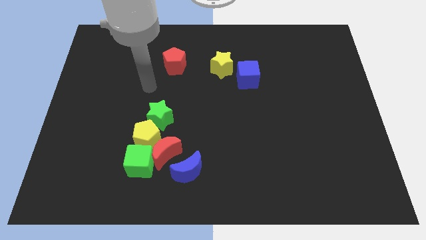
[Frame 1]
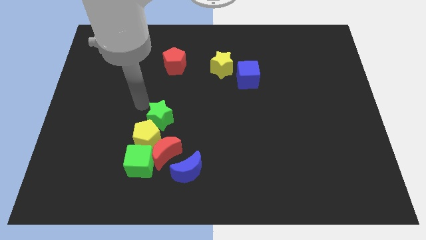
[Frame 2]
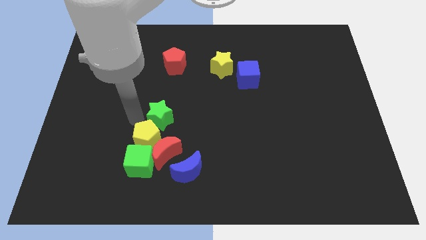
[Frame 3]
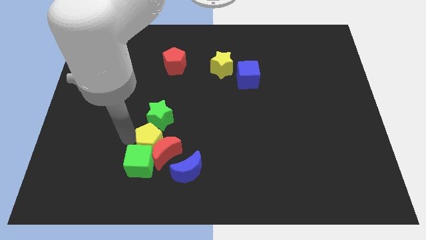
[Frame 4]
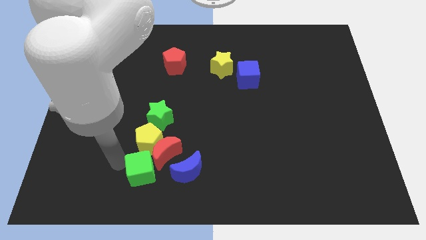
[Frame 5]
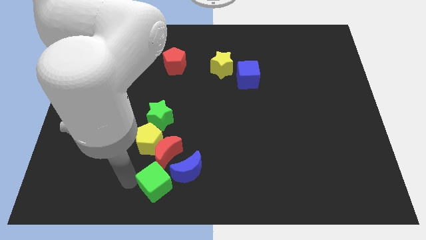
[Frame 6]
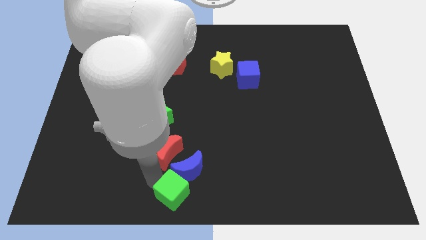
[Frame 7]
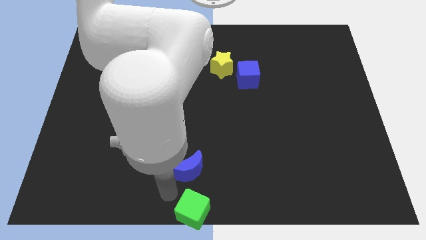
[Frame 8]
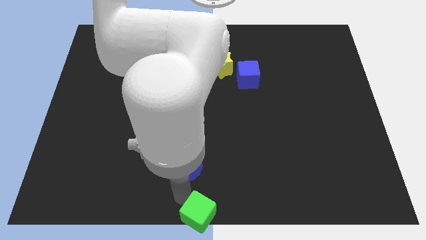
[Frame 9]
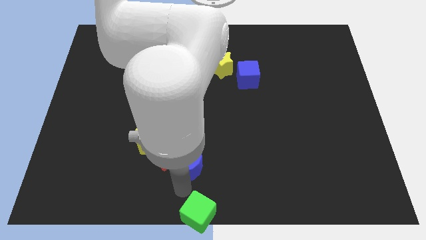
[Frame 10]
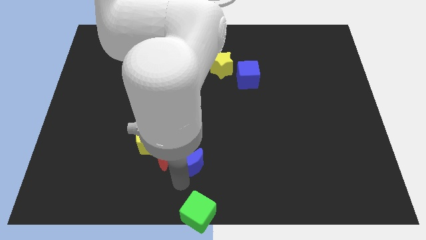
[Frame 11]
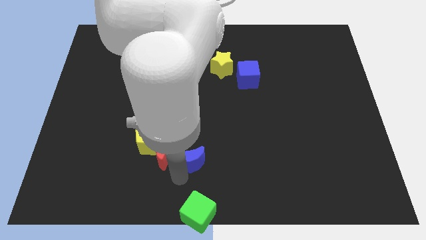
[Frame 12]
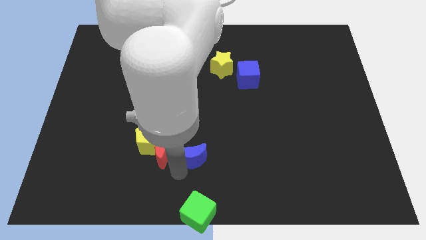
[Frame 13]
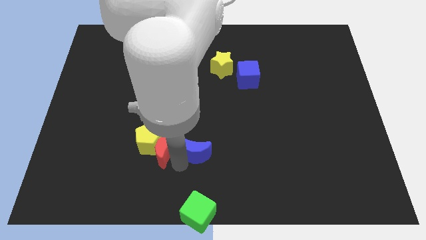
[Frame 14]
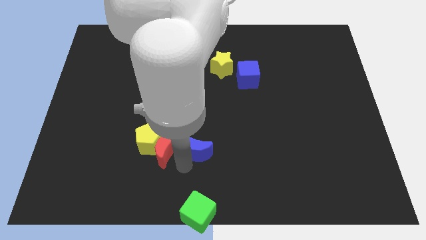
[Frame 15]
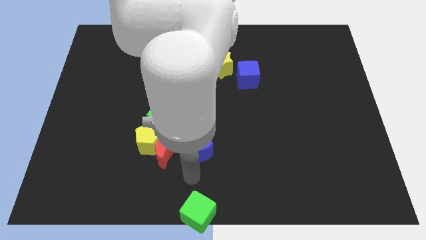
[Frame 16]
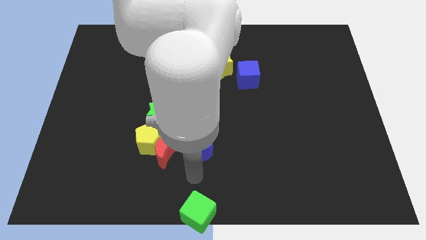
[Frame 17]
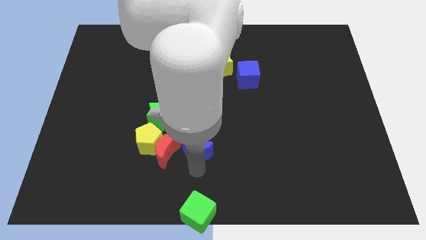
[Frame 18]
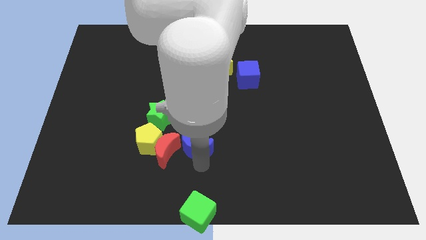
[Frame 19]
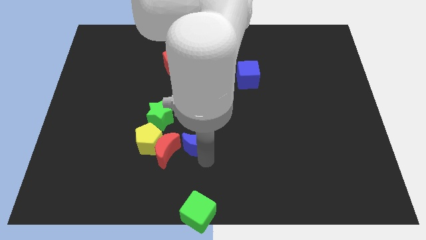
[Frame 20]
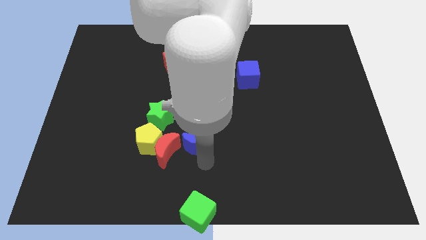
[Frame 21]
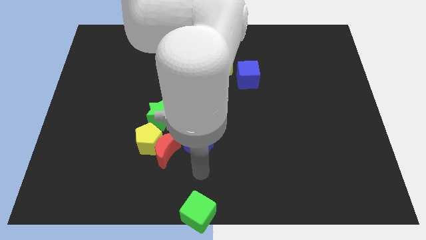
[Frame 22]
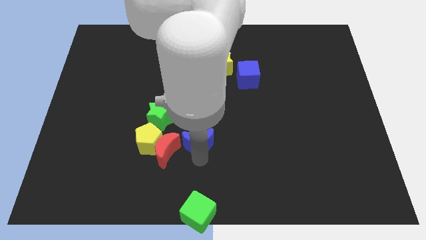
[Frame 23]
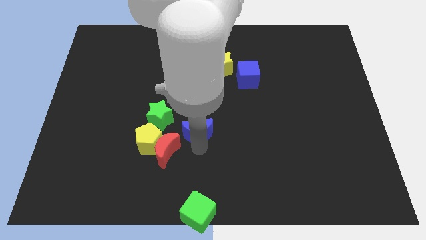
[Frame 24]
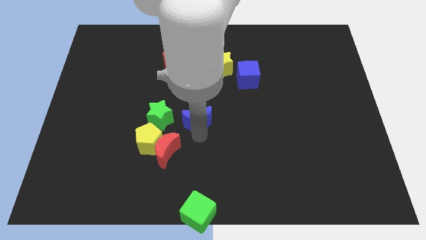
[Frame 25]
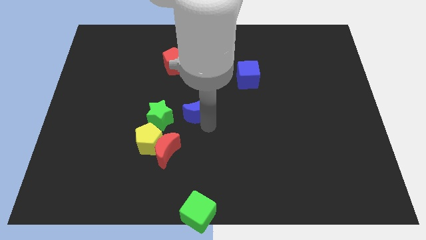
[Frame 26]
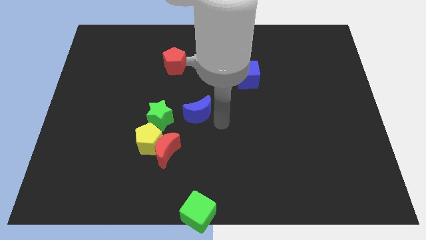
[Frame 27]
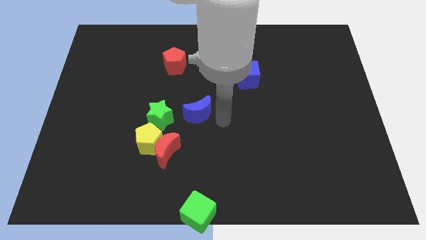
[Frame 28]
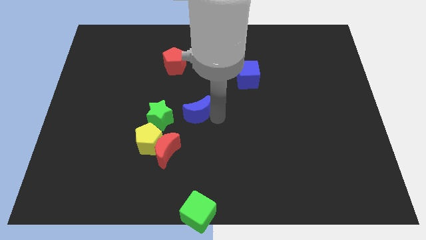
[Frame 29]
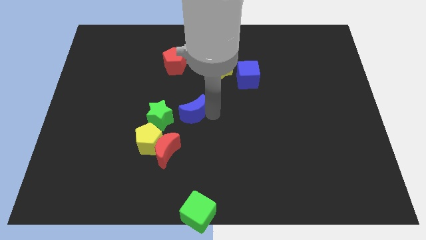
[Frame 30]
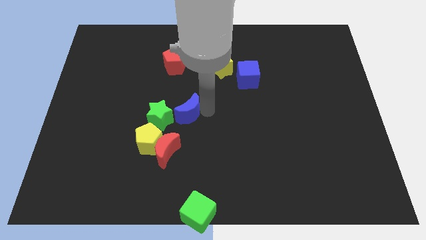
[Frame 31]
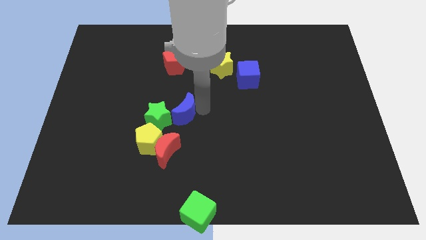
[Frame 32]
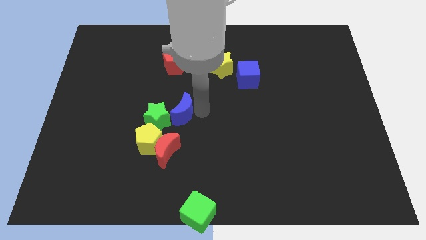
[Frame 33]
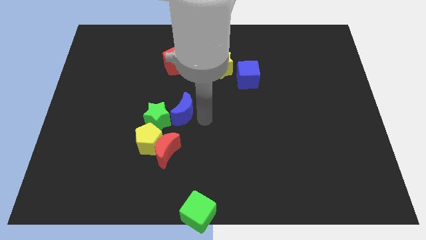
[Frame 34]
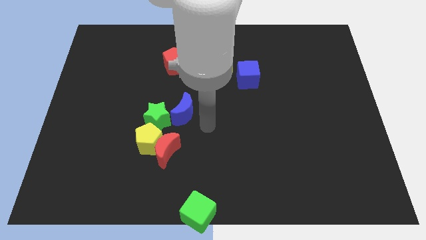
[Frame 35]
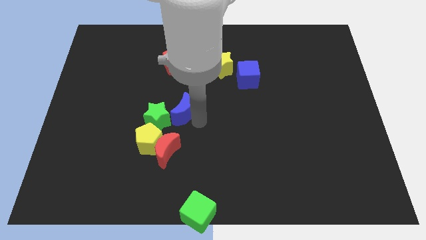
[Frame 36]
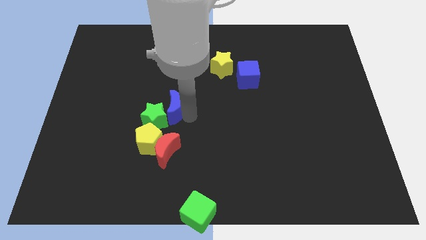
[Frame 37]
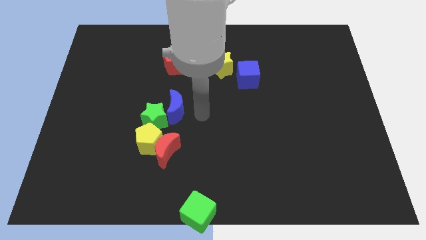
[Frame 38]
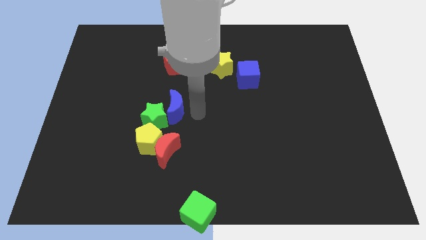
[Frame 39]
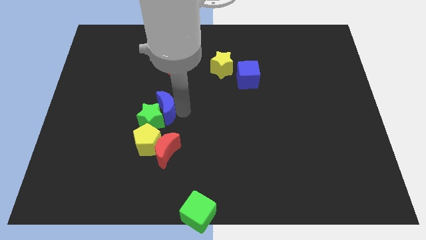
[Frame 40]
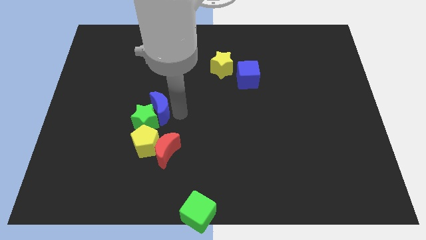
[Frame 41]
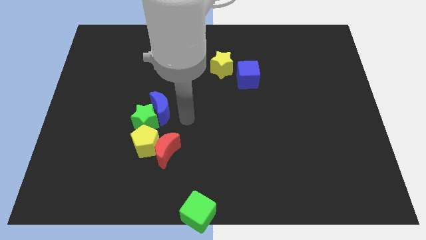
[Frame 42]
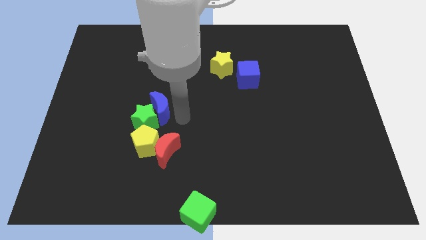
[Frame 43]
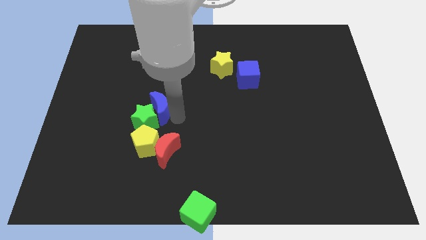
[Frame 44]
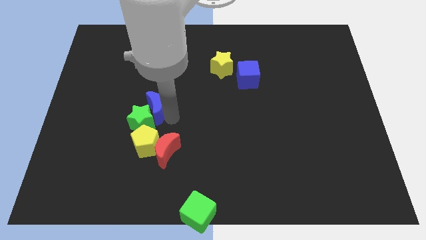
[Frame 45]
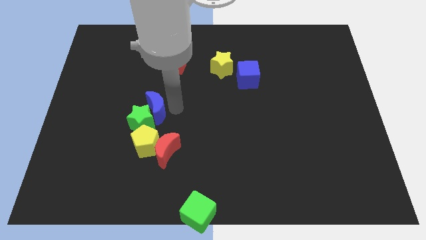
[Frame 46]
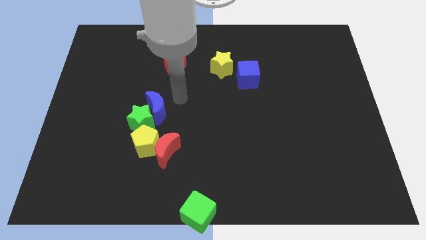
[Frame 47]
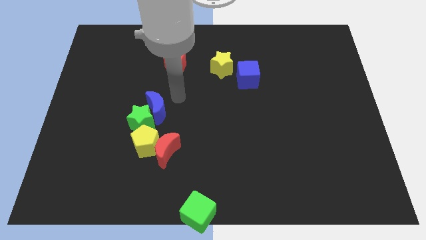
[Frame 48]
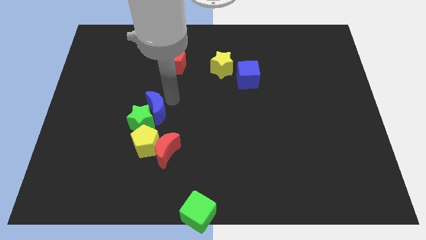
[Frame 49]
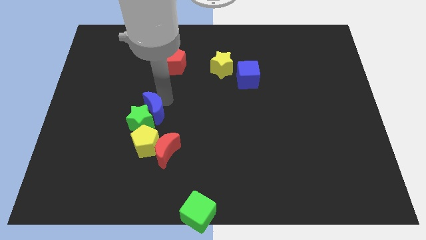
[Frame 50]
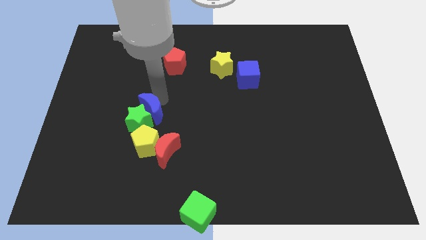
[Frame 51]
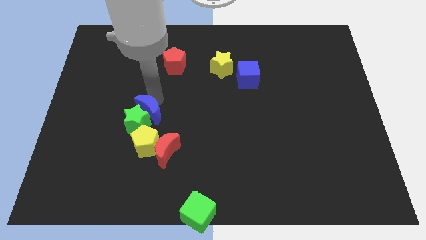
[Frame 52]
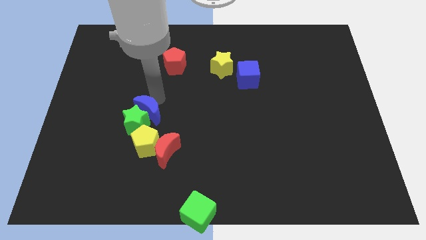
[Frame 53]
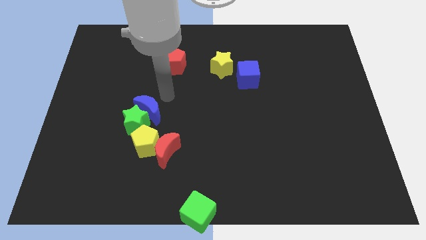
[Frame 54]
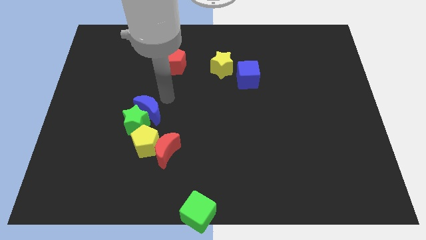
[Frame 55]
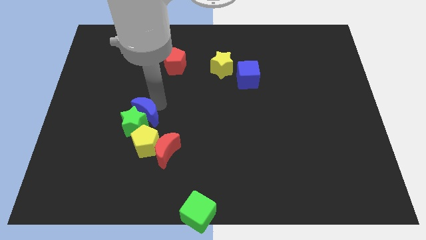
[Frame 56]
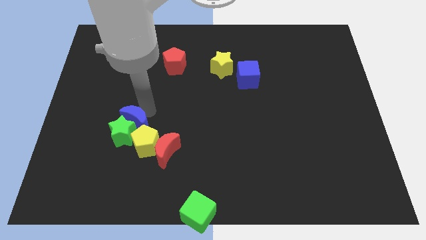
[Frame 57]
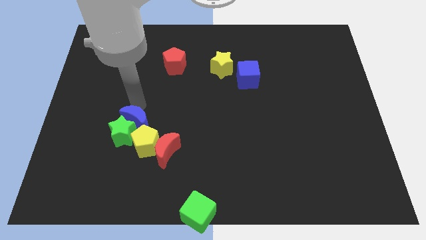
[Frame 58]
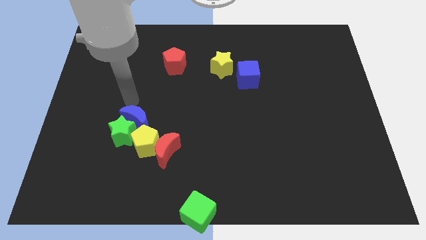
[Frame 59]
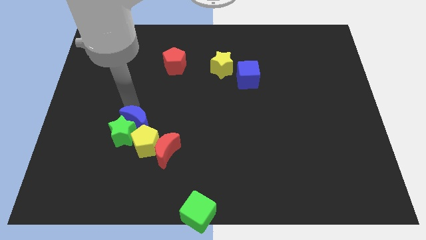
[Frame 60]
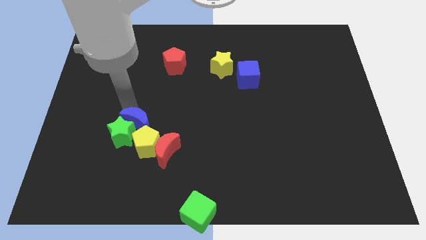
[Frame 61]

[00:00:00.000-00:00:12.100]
move the blue moon towards the yellow pentagon

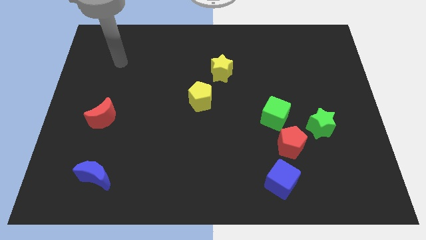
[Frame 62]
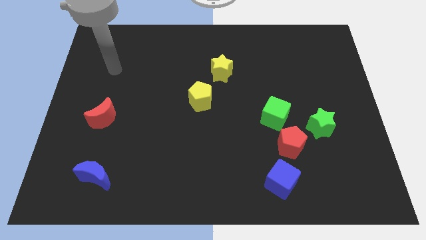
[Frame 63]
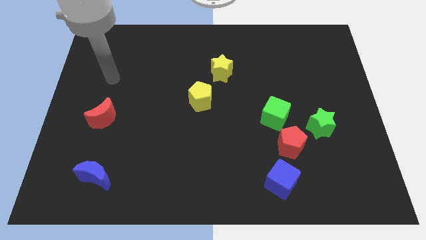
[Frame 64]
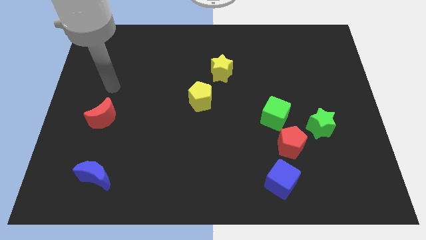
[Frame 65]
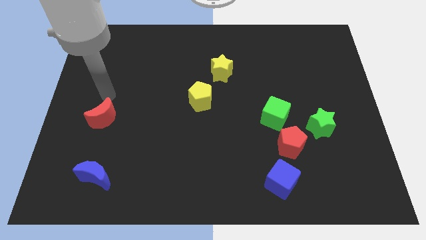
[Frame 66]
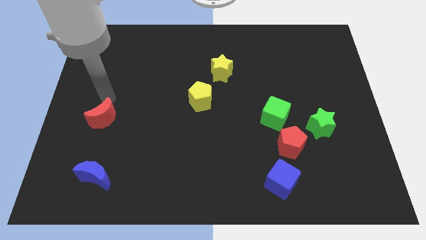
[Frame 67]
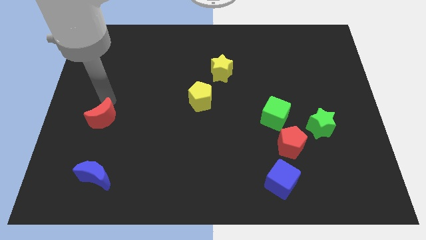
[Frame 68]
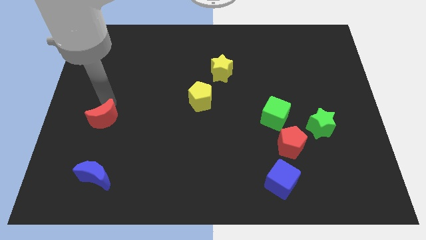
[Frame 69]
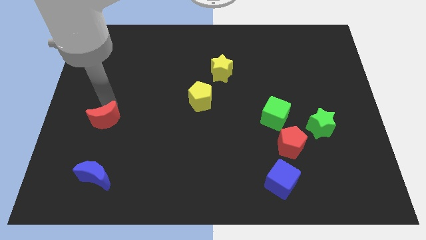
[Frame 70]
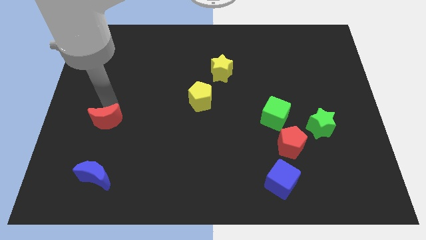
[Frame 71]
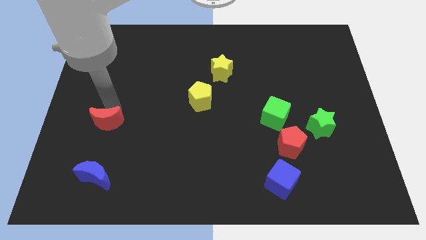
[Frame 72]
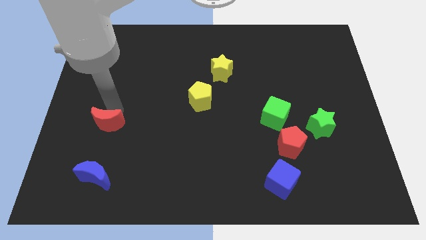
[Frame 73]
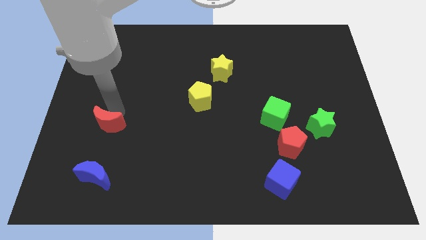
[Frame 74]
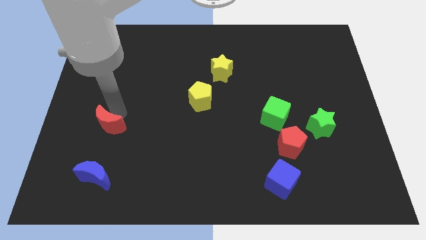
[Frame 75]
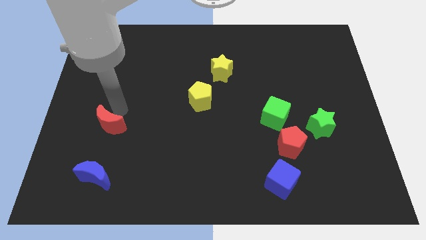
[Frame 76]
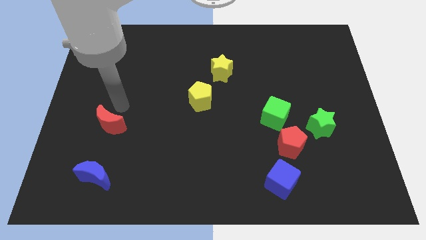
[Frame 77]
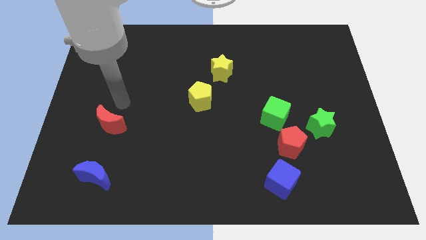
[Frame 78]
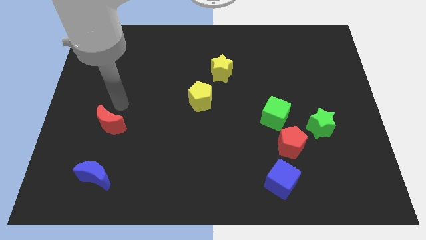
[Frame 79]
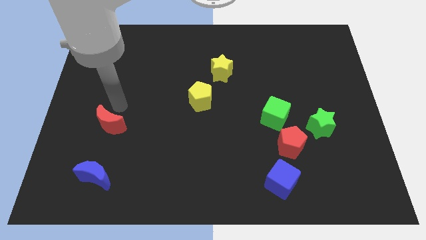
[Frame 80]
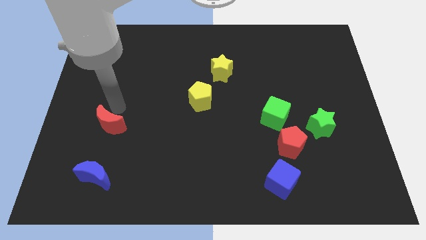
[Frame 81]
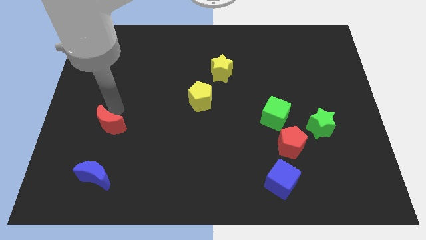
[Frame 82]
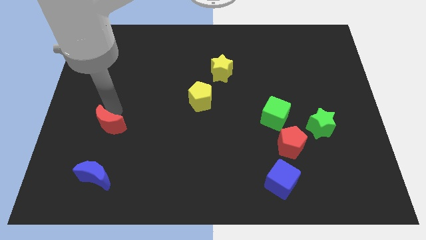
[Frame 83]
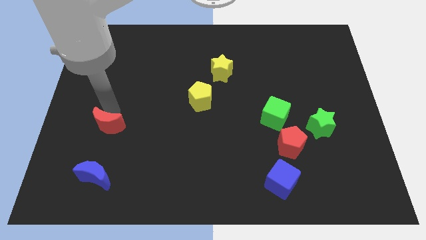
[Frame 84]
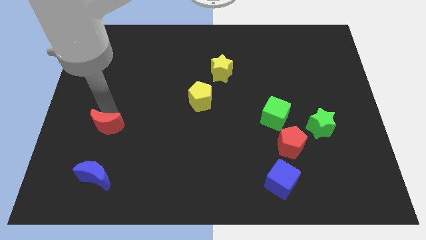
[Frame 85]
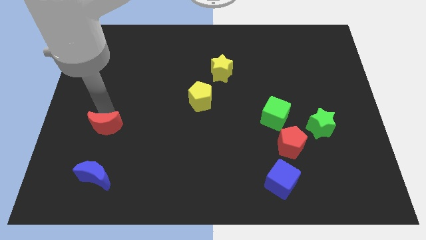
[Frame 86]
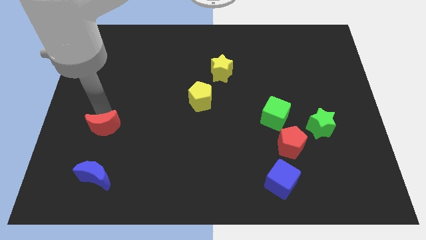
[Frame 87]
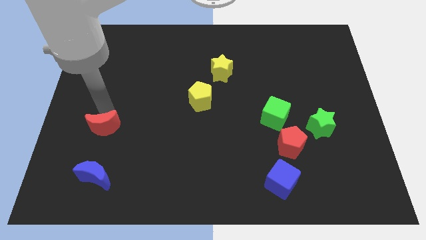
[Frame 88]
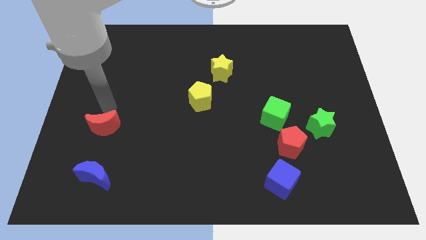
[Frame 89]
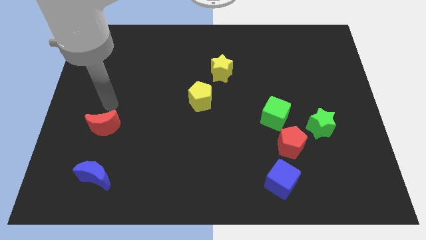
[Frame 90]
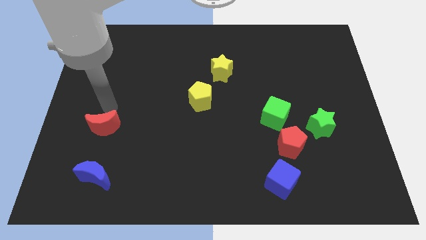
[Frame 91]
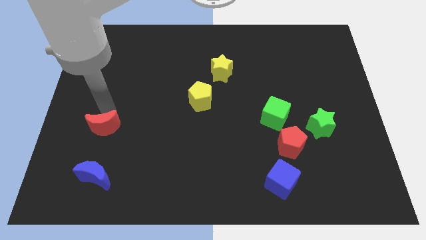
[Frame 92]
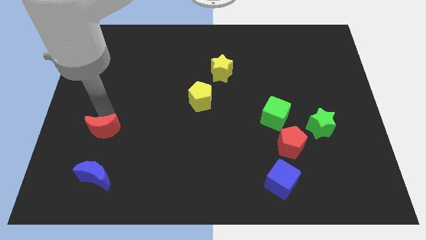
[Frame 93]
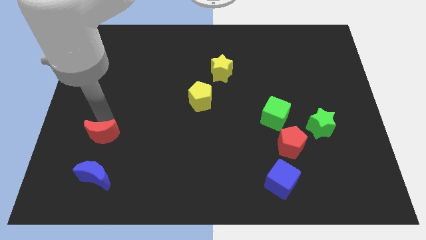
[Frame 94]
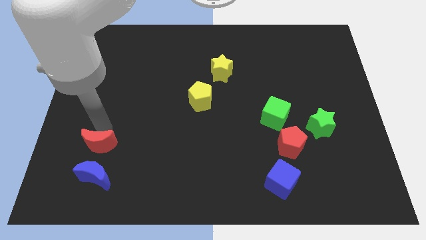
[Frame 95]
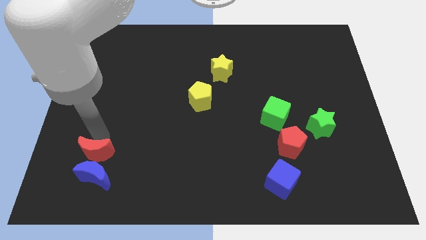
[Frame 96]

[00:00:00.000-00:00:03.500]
push the red moon next to the blue moon
